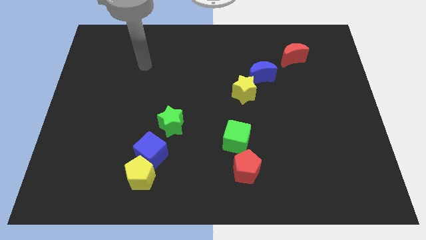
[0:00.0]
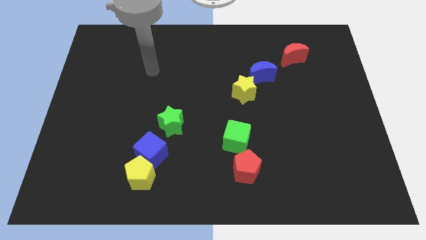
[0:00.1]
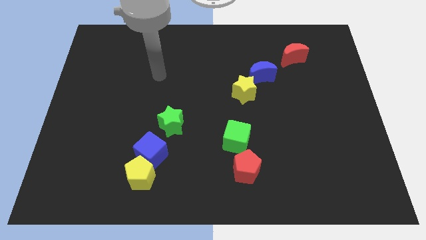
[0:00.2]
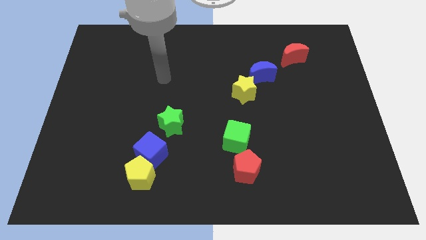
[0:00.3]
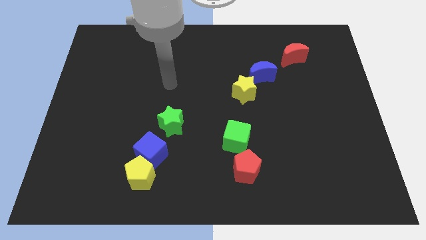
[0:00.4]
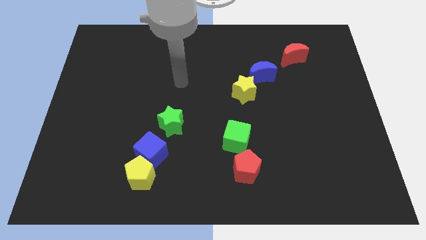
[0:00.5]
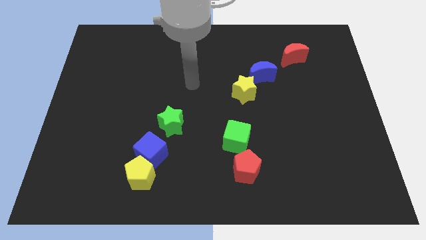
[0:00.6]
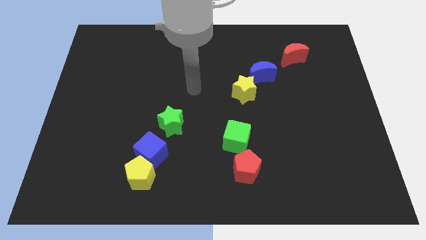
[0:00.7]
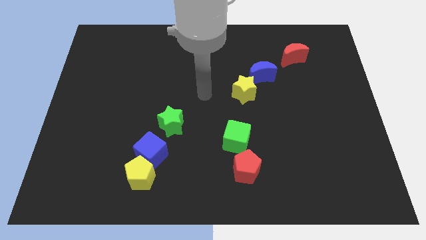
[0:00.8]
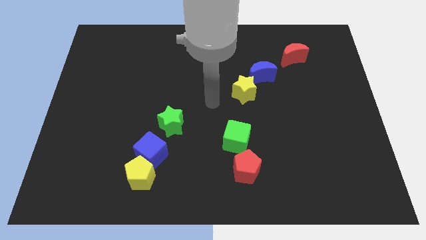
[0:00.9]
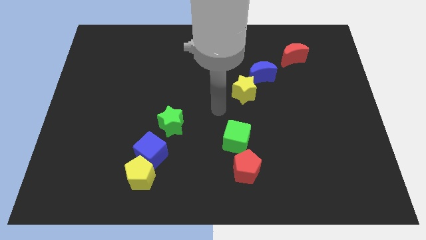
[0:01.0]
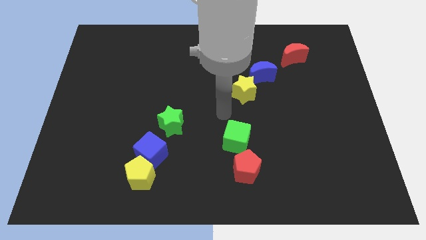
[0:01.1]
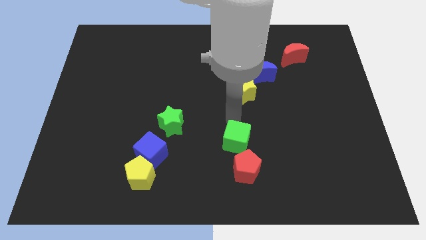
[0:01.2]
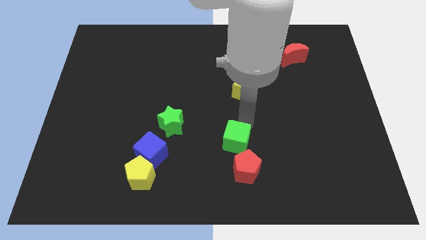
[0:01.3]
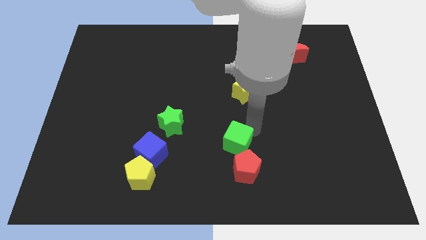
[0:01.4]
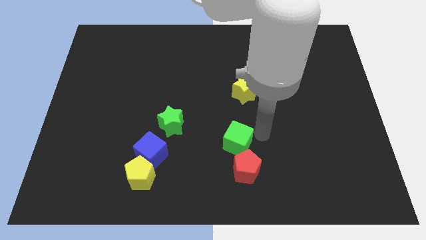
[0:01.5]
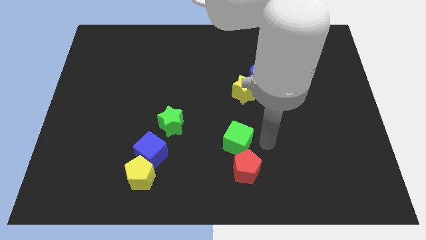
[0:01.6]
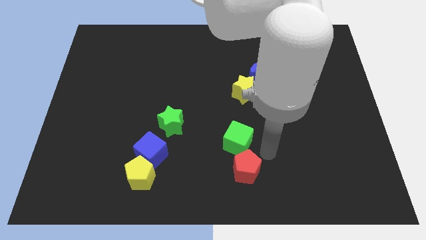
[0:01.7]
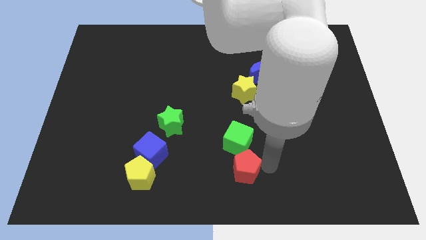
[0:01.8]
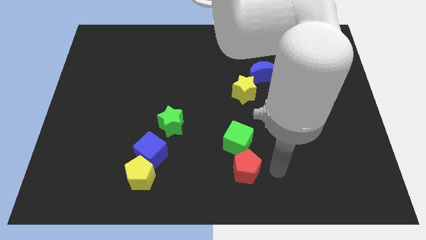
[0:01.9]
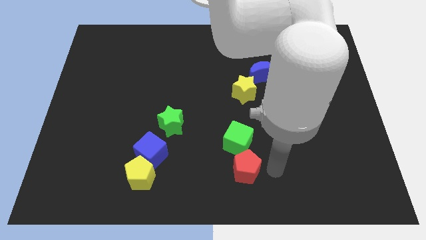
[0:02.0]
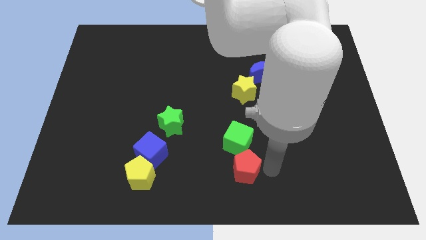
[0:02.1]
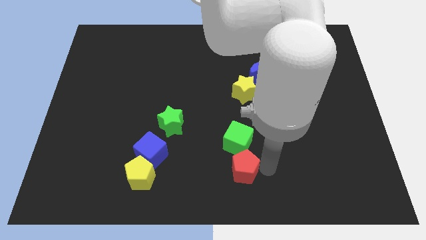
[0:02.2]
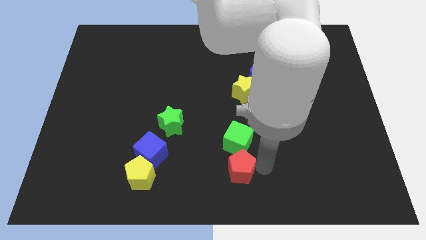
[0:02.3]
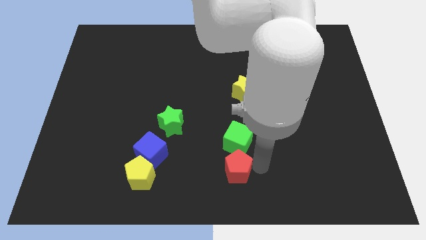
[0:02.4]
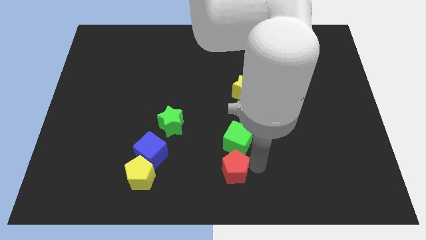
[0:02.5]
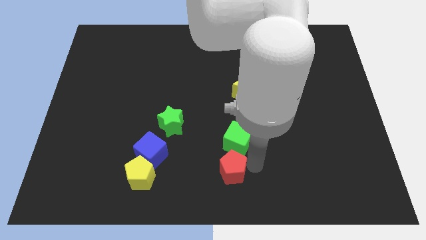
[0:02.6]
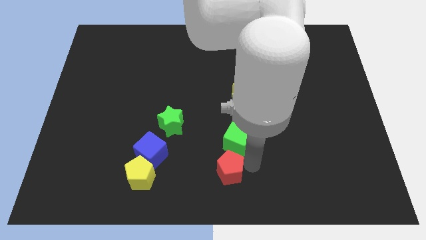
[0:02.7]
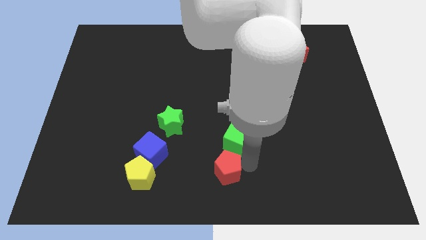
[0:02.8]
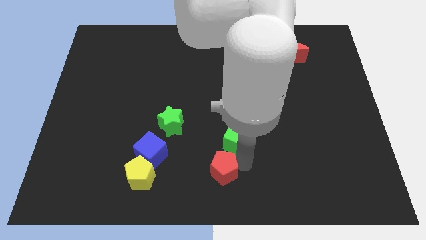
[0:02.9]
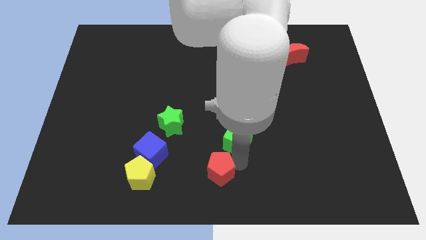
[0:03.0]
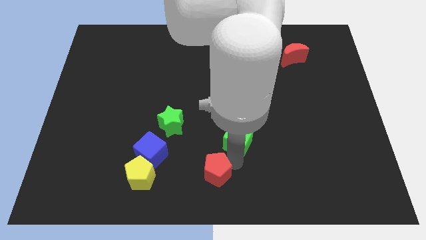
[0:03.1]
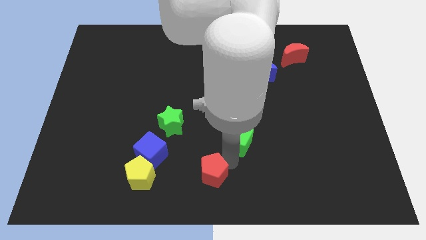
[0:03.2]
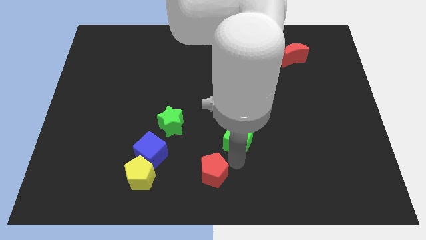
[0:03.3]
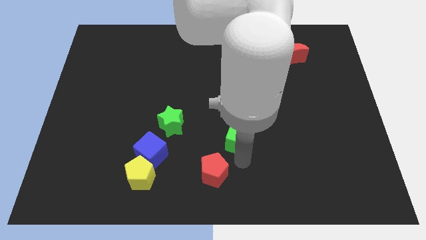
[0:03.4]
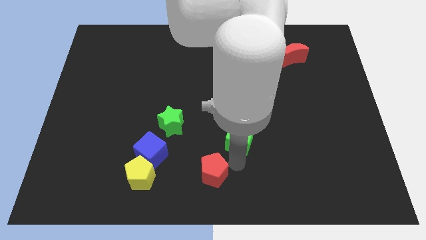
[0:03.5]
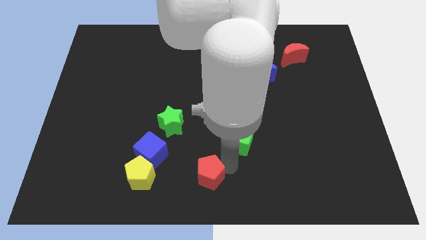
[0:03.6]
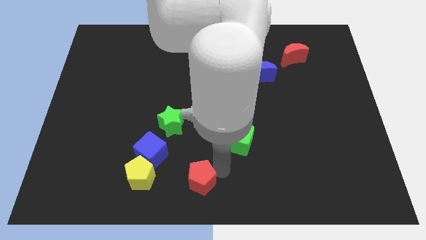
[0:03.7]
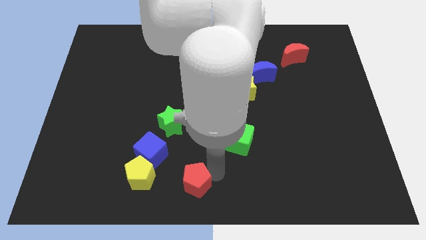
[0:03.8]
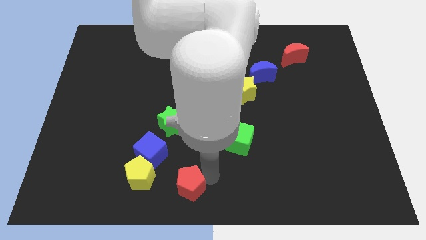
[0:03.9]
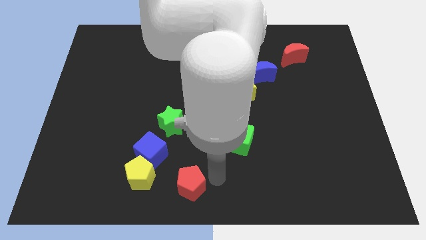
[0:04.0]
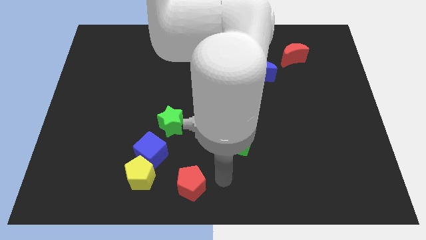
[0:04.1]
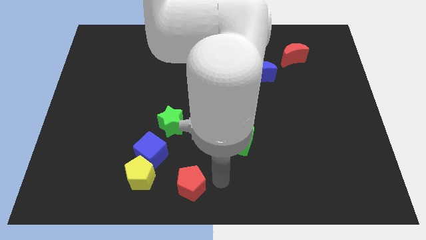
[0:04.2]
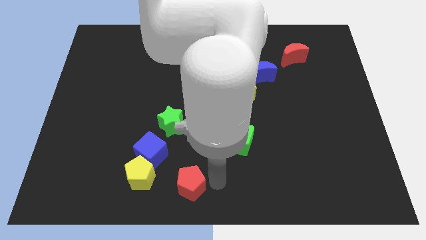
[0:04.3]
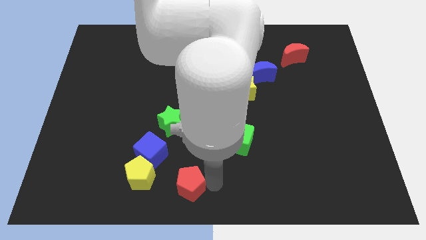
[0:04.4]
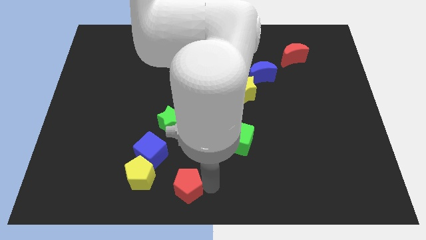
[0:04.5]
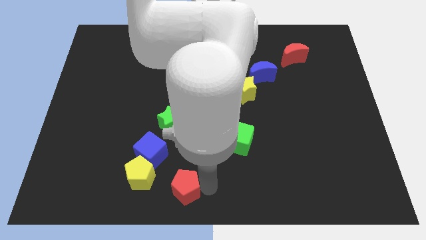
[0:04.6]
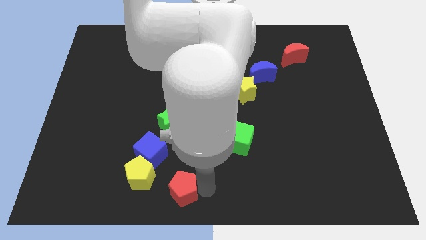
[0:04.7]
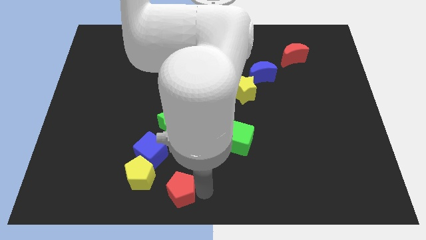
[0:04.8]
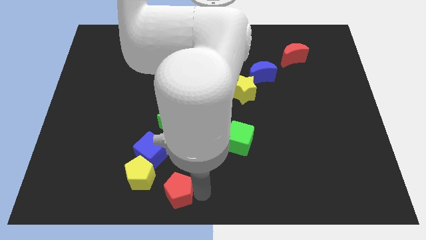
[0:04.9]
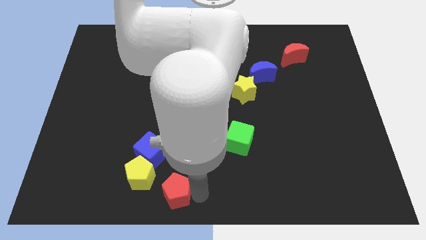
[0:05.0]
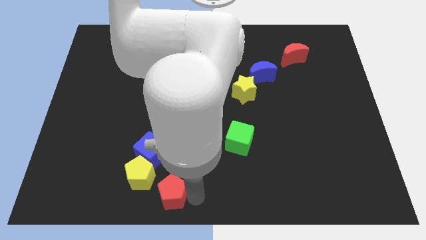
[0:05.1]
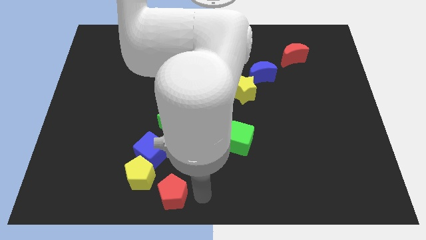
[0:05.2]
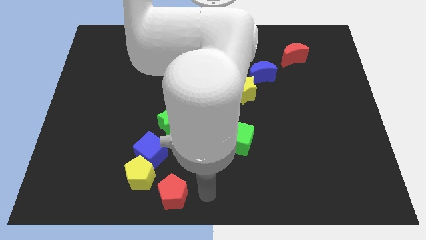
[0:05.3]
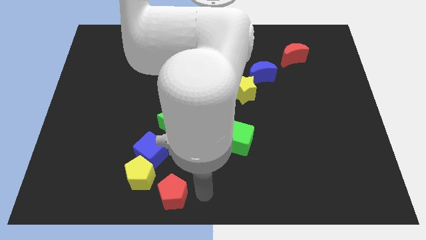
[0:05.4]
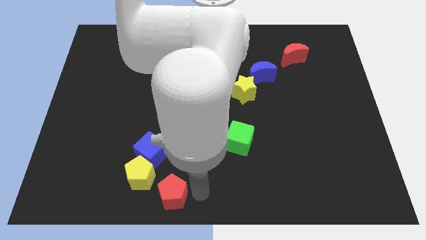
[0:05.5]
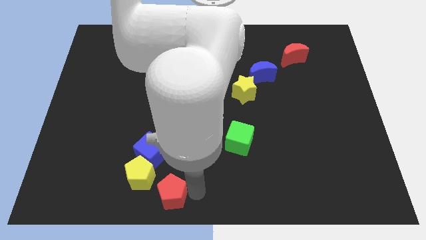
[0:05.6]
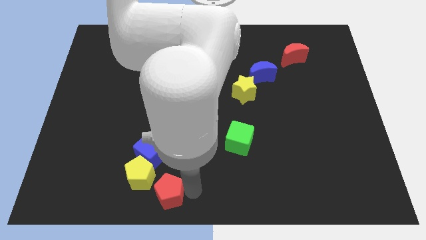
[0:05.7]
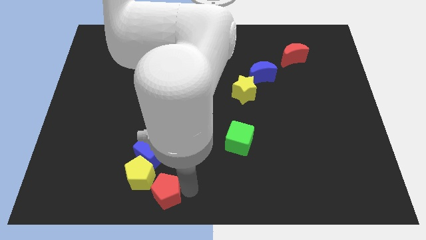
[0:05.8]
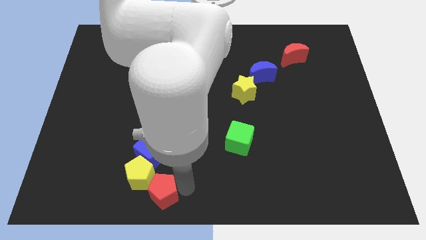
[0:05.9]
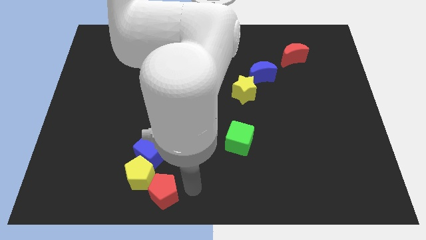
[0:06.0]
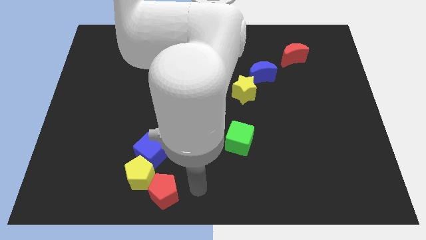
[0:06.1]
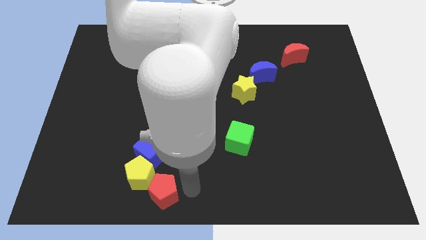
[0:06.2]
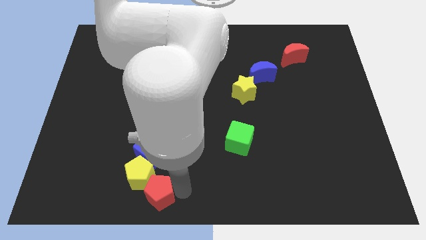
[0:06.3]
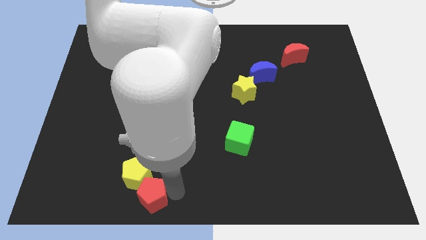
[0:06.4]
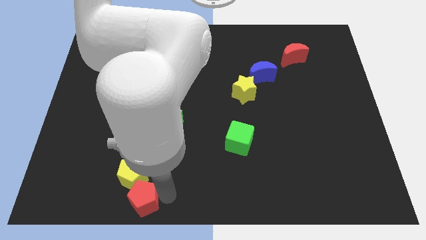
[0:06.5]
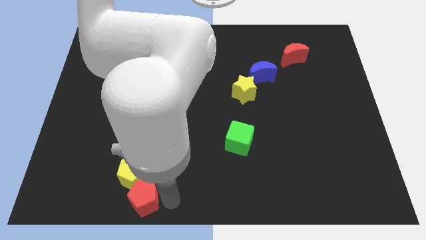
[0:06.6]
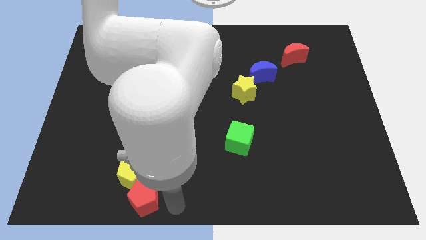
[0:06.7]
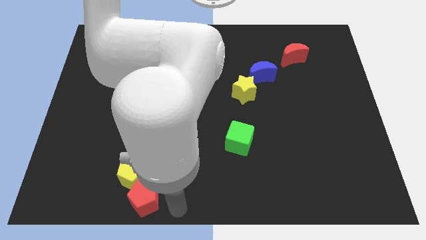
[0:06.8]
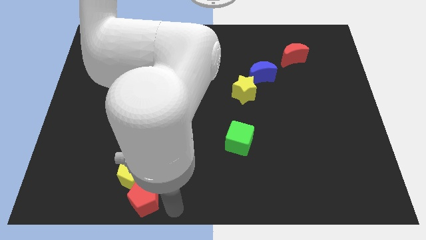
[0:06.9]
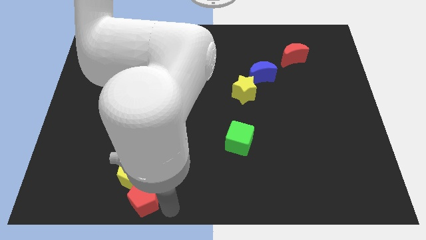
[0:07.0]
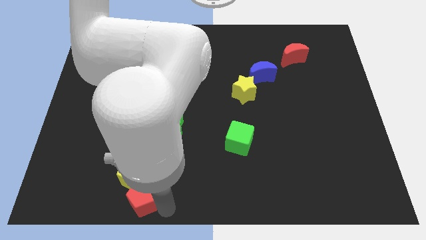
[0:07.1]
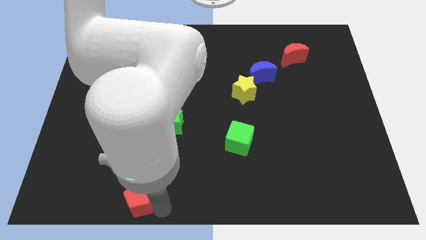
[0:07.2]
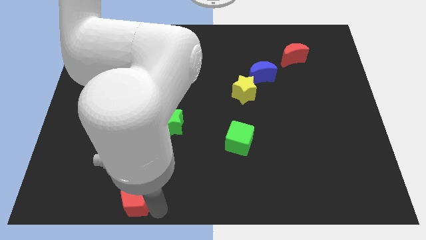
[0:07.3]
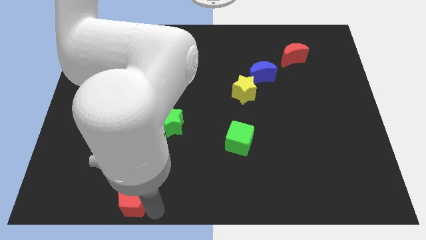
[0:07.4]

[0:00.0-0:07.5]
move the red pentagon to the left

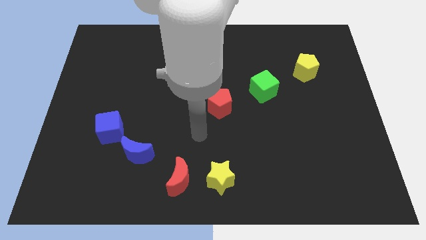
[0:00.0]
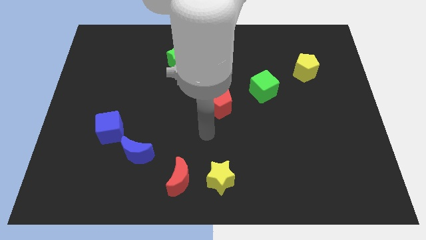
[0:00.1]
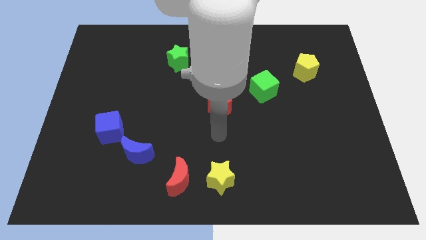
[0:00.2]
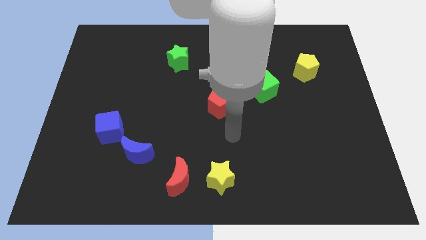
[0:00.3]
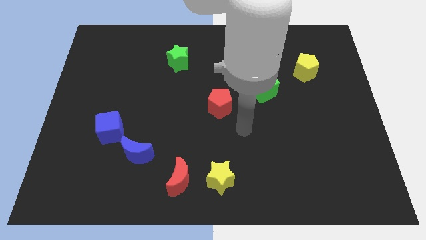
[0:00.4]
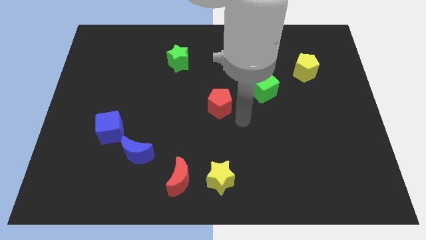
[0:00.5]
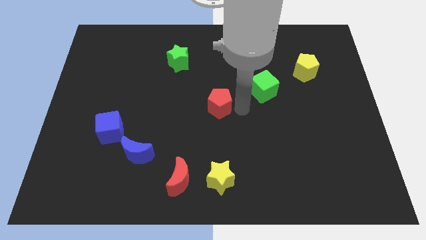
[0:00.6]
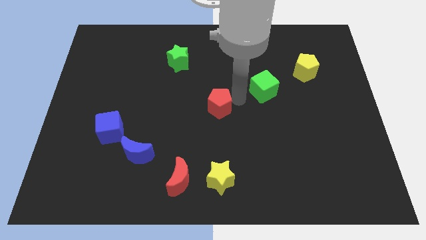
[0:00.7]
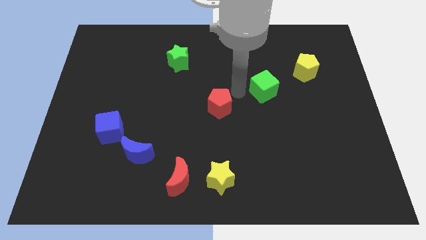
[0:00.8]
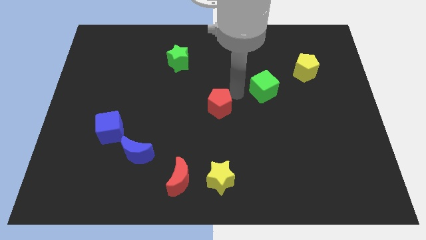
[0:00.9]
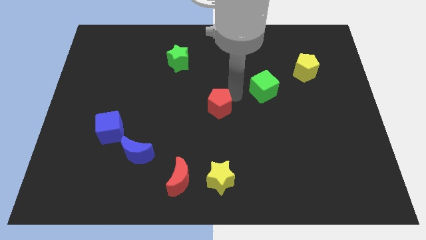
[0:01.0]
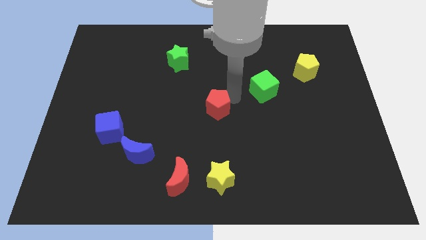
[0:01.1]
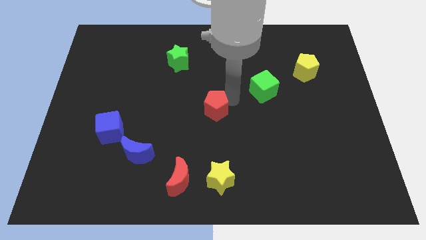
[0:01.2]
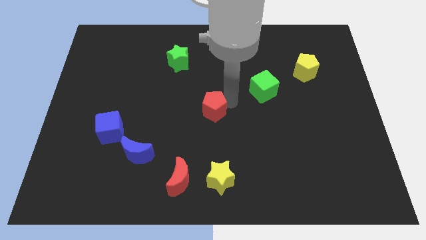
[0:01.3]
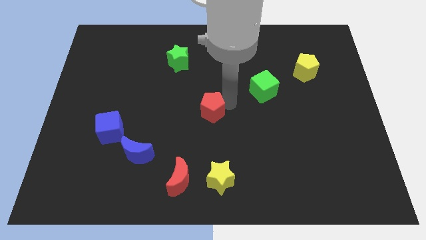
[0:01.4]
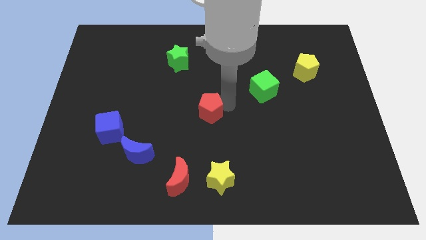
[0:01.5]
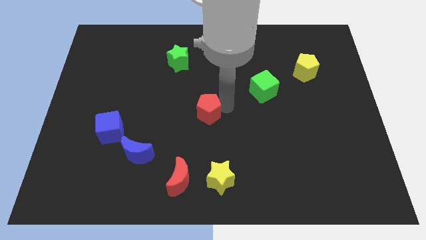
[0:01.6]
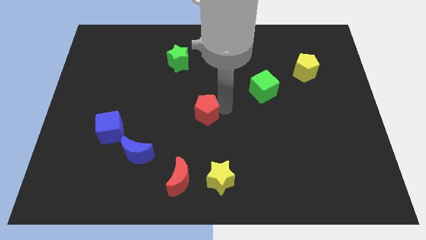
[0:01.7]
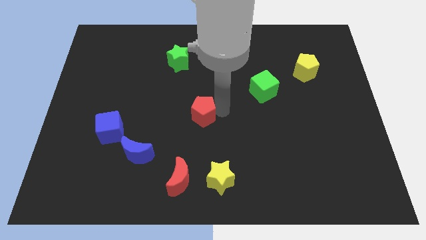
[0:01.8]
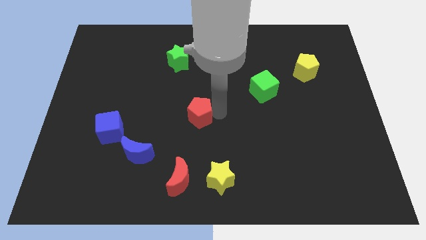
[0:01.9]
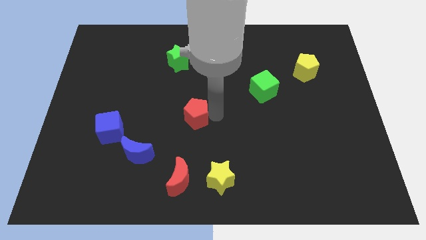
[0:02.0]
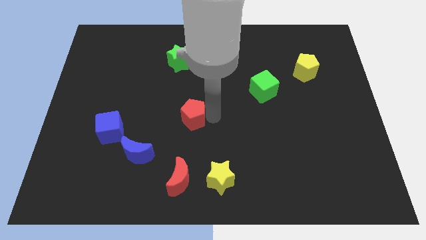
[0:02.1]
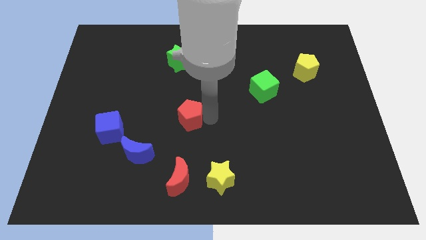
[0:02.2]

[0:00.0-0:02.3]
slide the red pentagon diagonally down and to the left slightly
